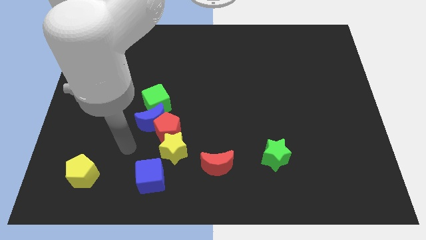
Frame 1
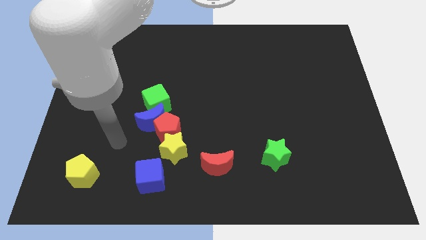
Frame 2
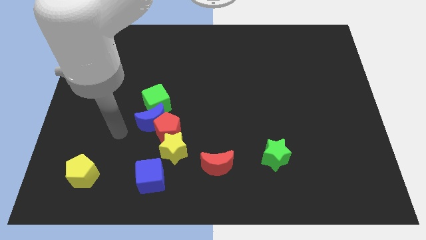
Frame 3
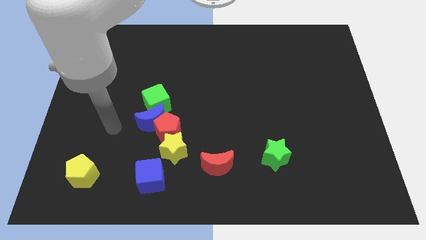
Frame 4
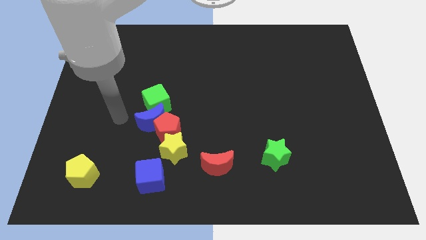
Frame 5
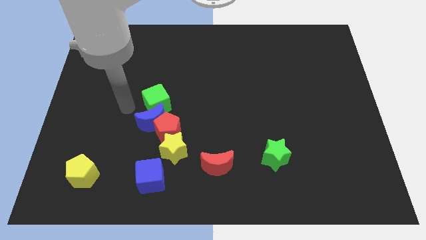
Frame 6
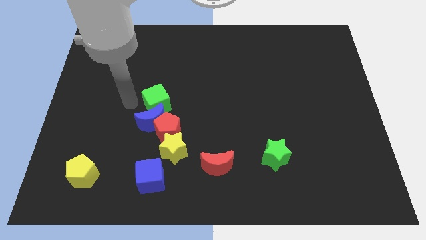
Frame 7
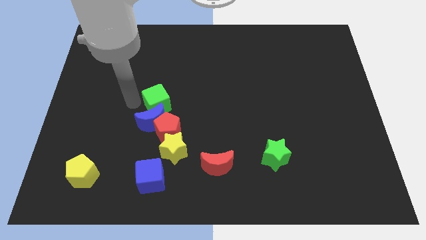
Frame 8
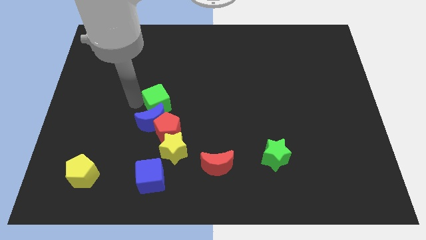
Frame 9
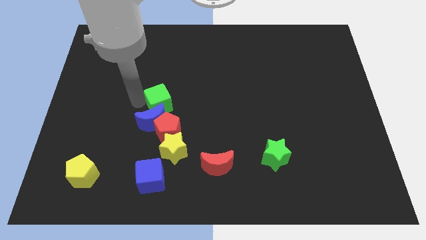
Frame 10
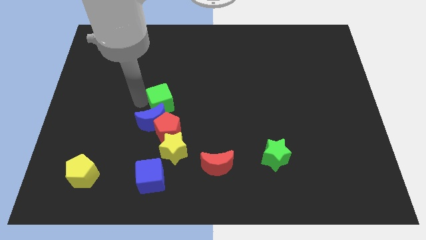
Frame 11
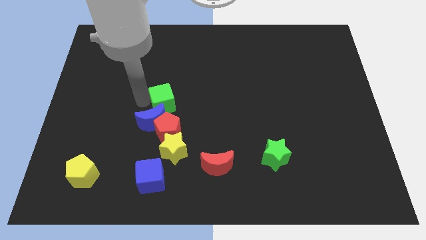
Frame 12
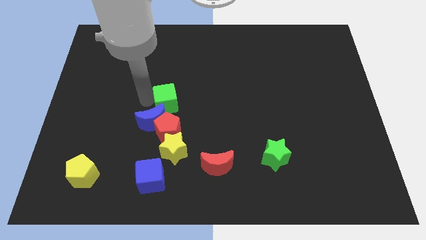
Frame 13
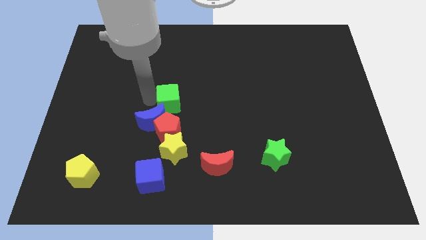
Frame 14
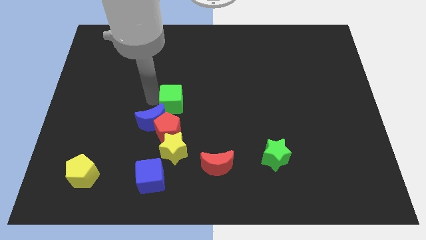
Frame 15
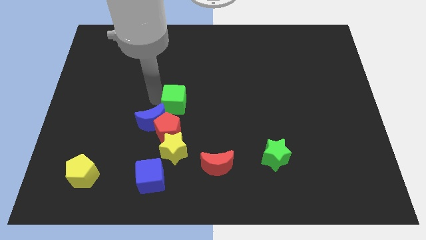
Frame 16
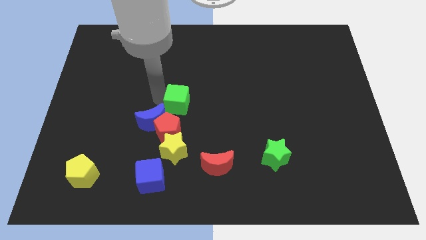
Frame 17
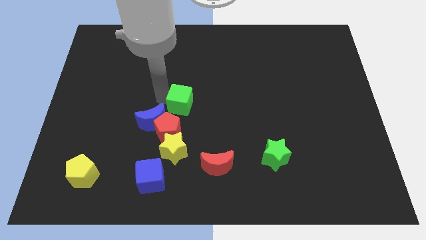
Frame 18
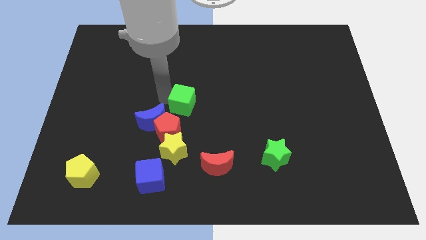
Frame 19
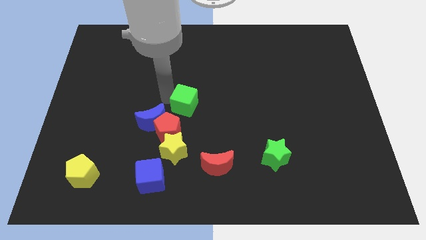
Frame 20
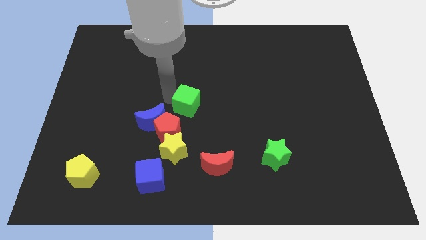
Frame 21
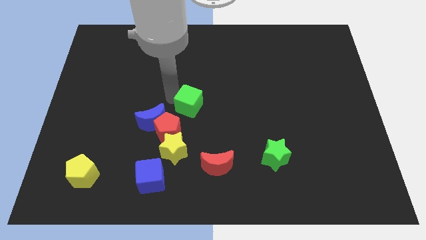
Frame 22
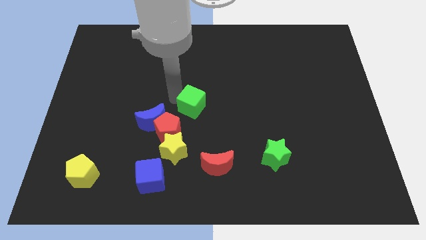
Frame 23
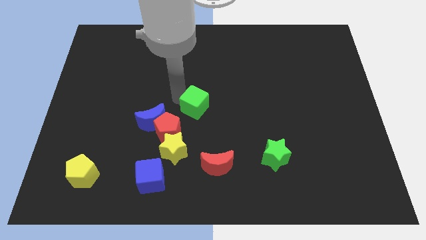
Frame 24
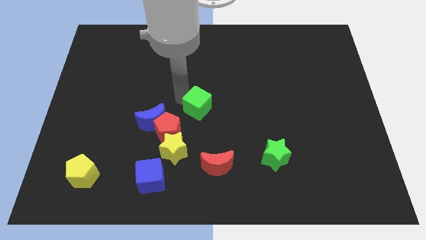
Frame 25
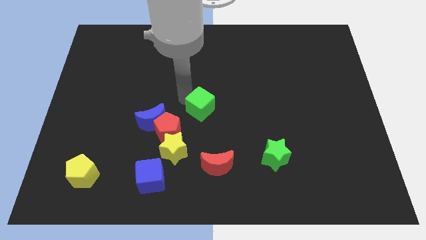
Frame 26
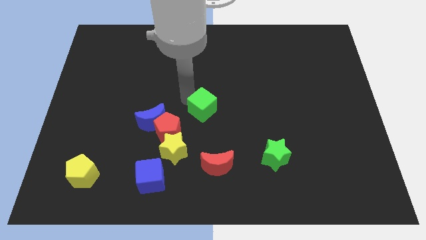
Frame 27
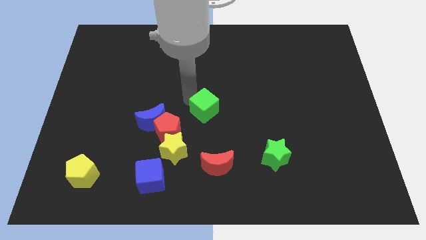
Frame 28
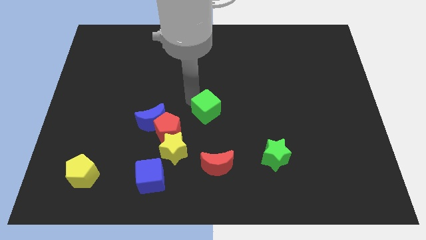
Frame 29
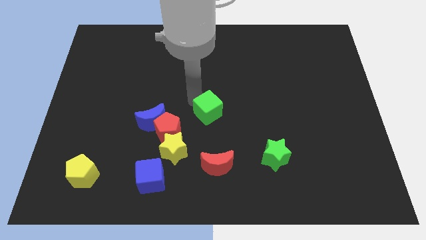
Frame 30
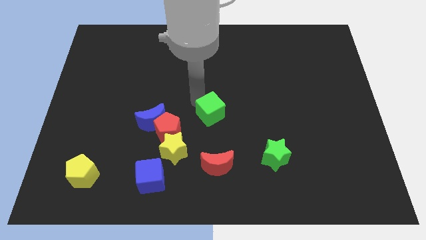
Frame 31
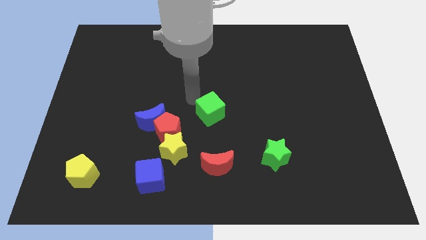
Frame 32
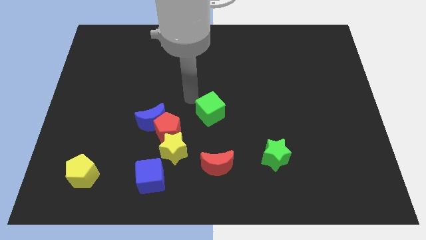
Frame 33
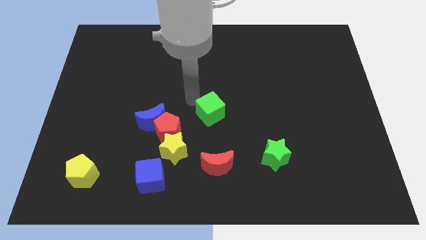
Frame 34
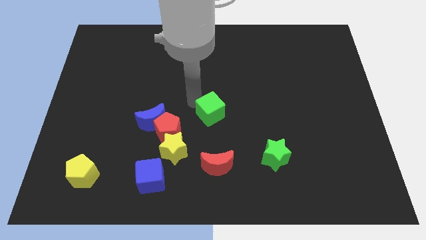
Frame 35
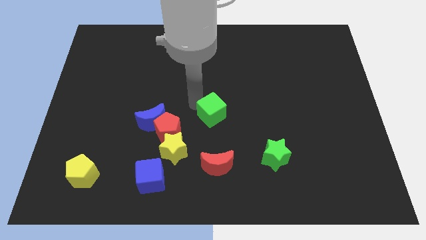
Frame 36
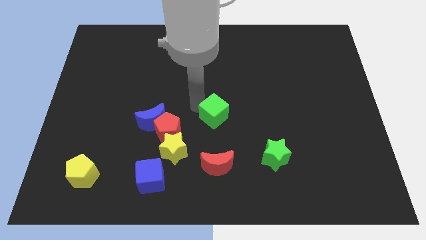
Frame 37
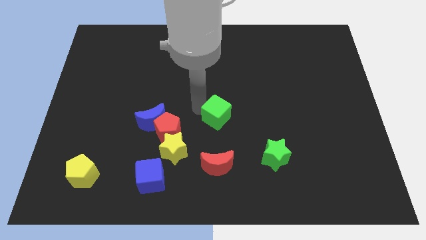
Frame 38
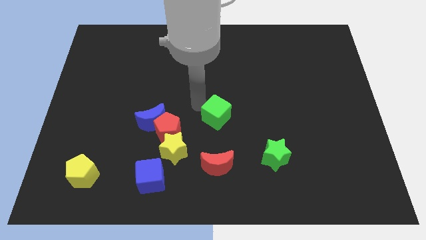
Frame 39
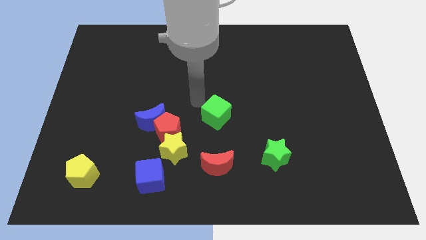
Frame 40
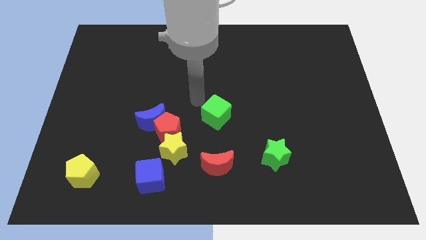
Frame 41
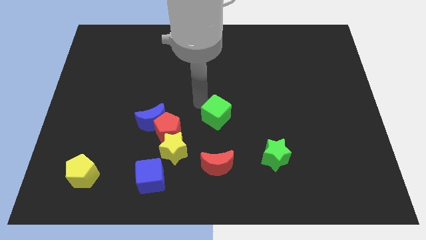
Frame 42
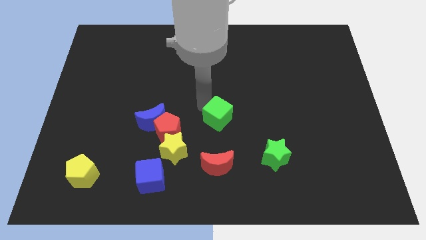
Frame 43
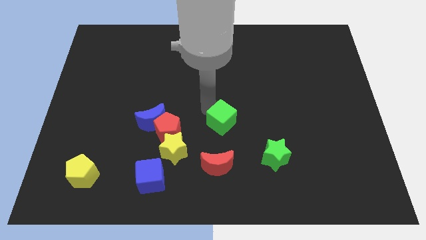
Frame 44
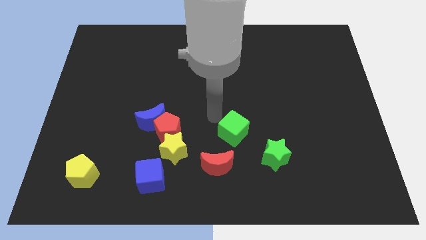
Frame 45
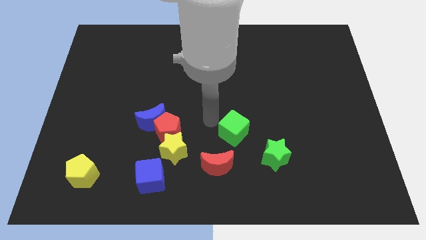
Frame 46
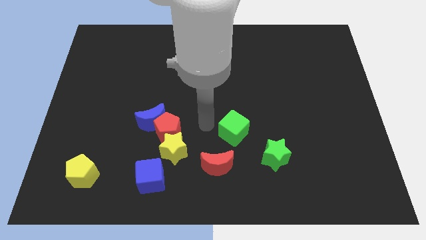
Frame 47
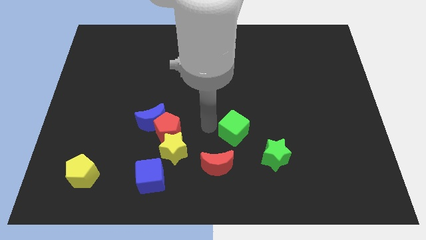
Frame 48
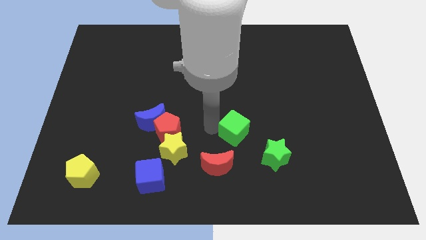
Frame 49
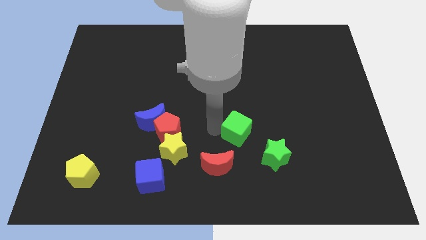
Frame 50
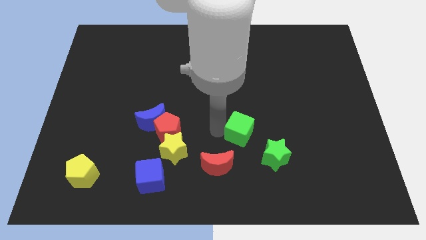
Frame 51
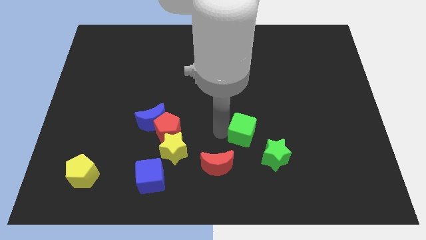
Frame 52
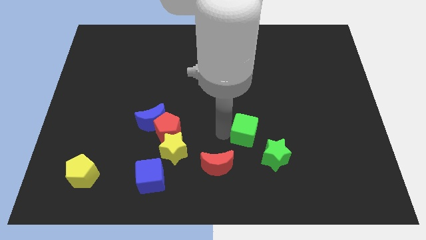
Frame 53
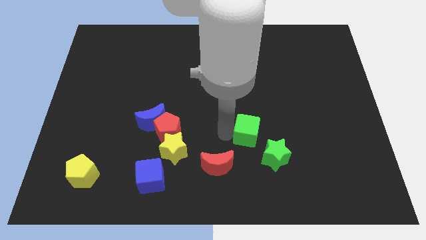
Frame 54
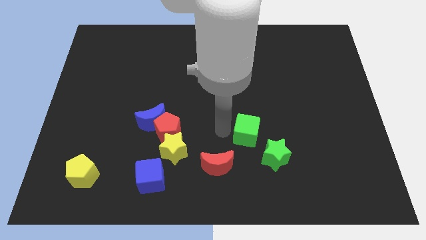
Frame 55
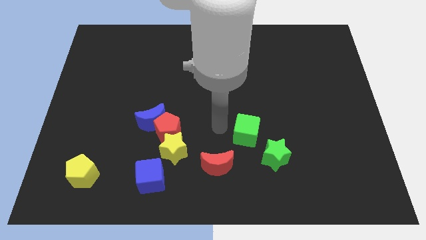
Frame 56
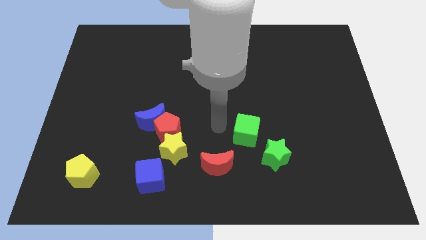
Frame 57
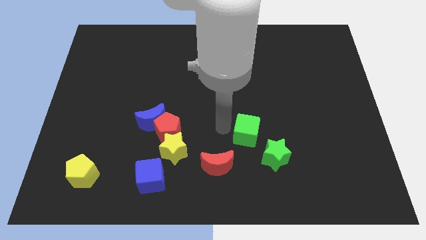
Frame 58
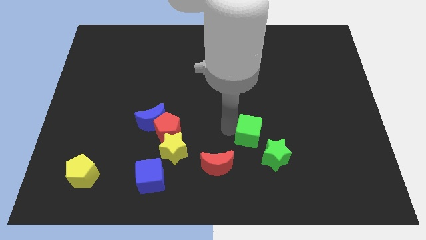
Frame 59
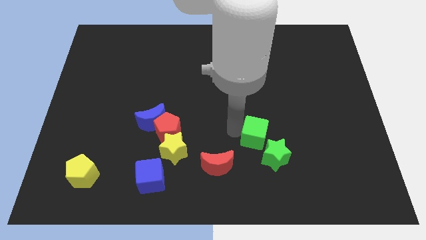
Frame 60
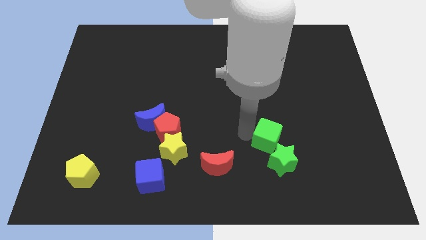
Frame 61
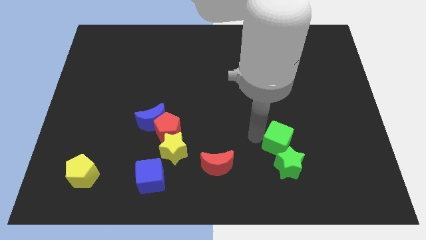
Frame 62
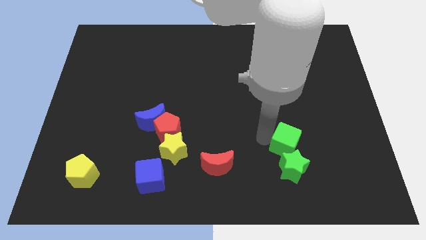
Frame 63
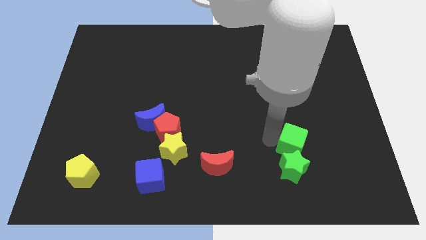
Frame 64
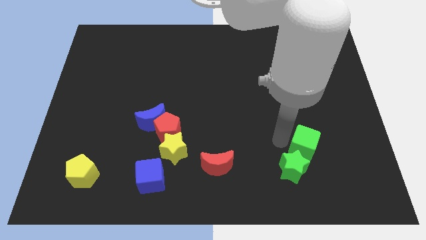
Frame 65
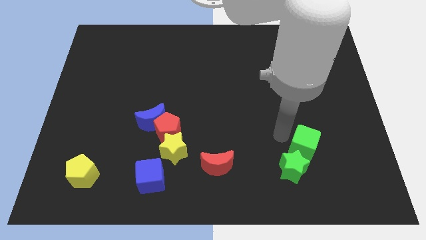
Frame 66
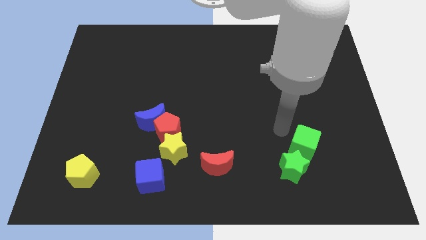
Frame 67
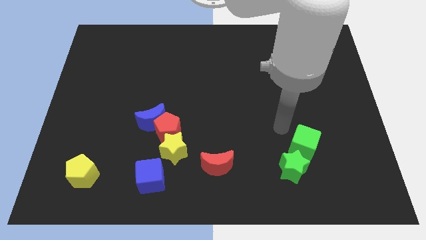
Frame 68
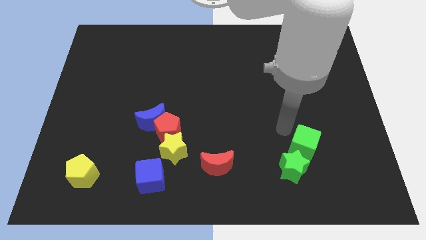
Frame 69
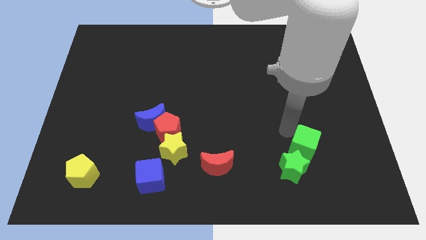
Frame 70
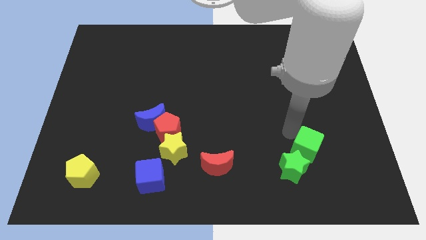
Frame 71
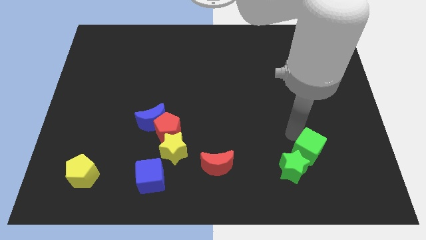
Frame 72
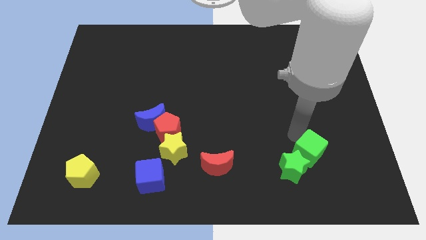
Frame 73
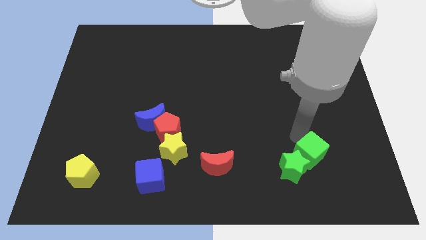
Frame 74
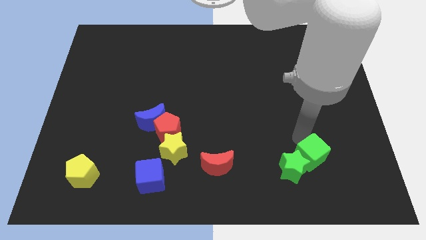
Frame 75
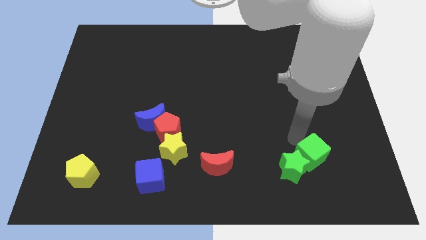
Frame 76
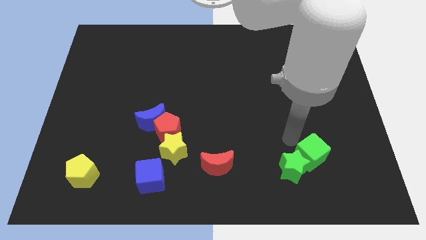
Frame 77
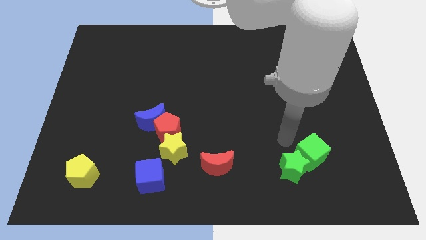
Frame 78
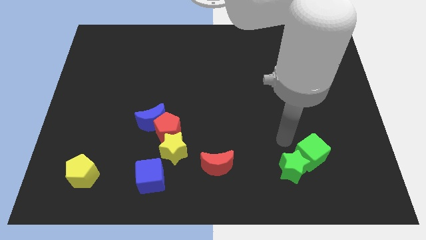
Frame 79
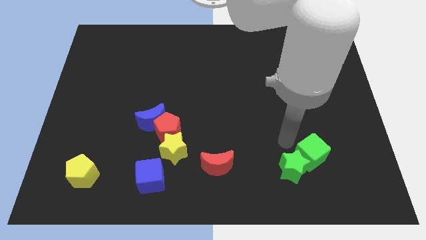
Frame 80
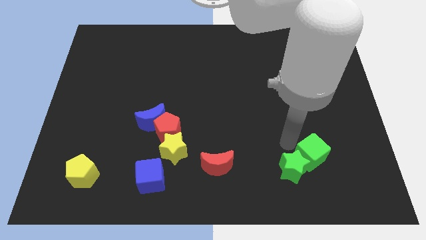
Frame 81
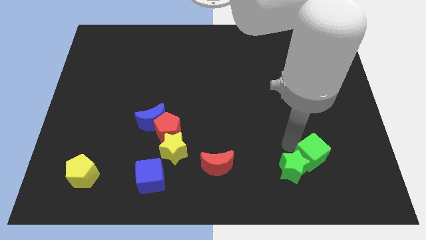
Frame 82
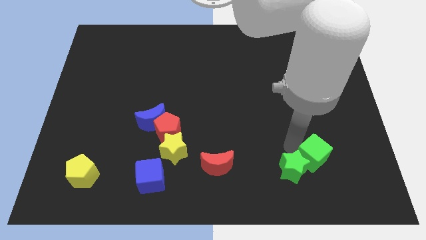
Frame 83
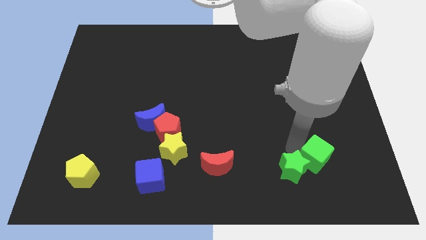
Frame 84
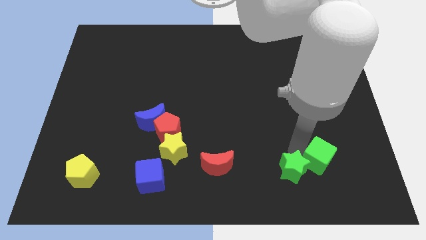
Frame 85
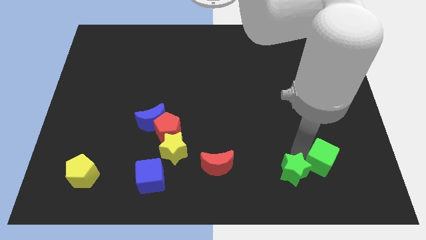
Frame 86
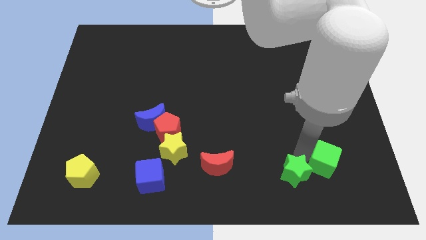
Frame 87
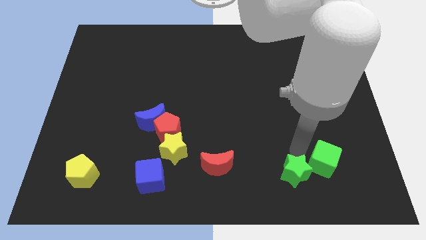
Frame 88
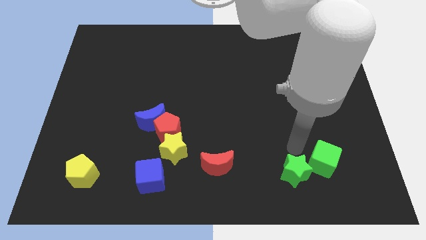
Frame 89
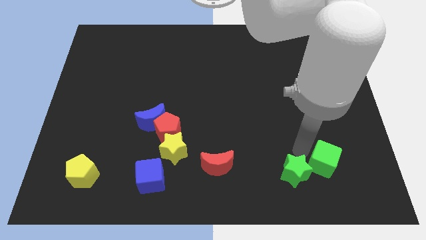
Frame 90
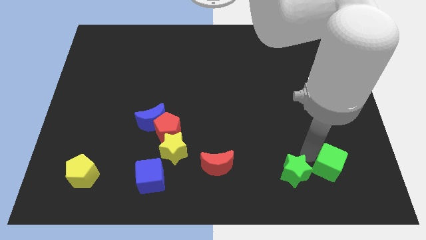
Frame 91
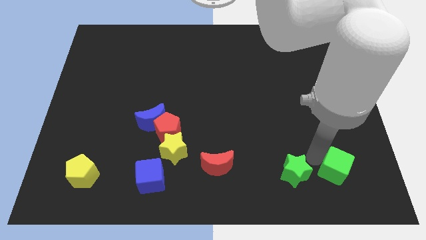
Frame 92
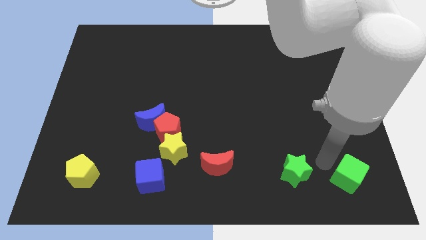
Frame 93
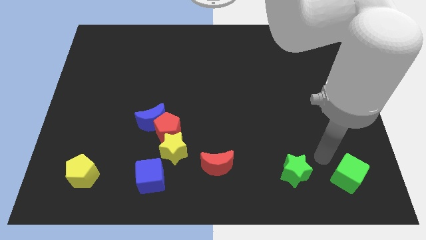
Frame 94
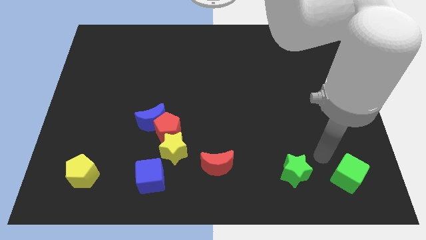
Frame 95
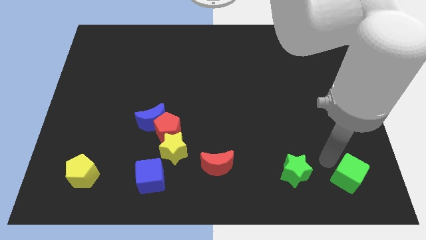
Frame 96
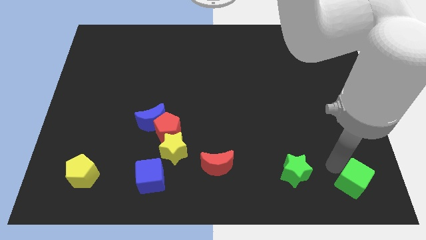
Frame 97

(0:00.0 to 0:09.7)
slide the green cube to the bottom right of the board
